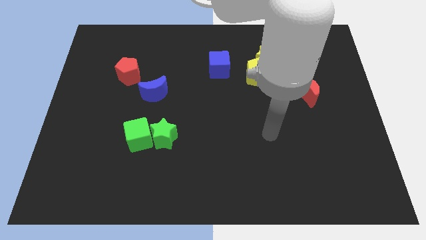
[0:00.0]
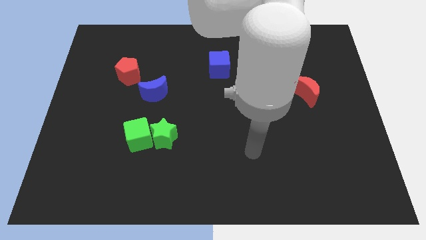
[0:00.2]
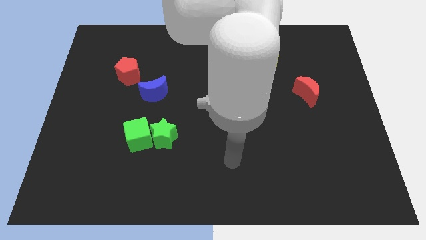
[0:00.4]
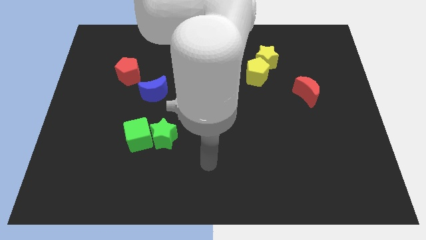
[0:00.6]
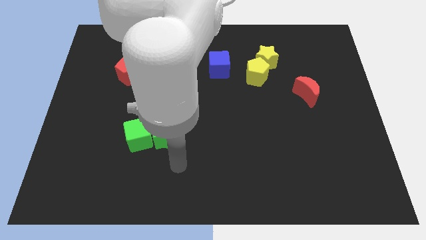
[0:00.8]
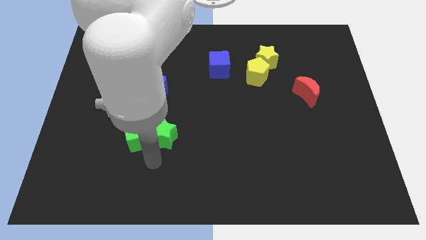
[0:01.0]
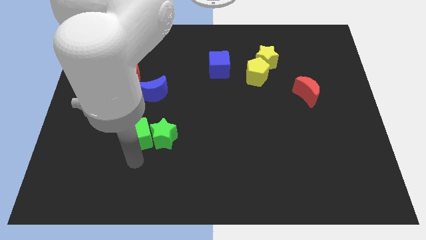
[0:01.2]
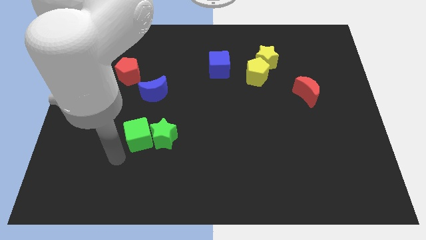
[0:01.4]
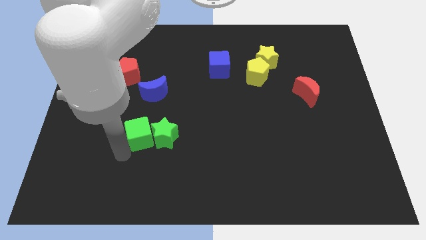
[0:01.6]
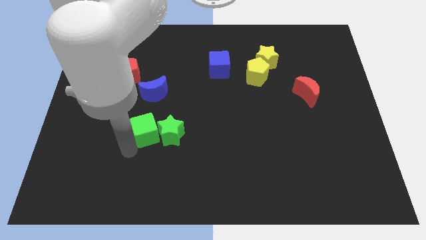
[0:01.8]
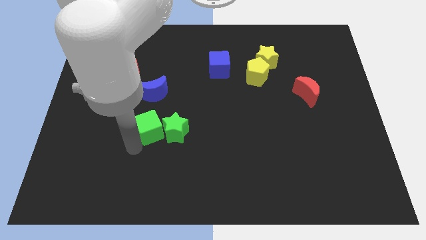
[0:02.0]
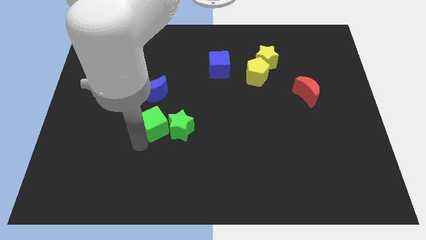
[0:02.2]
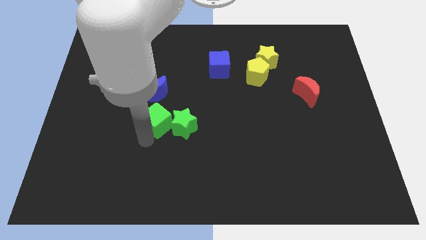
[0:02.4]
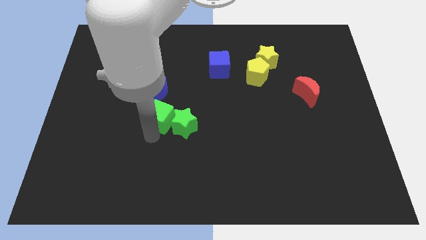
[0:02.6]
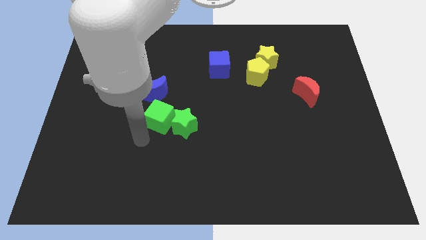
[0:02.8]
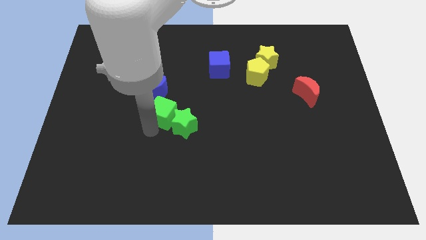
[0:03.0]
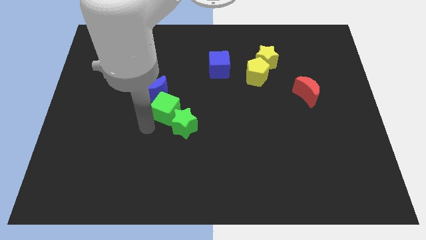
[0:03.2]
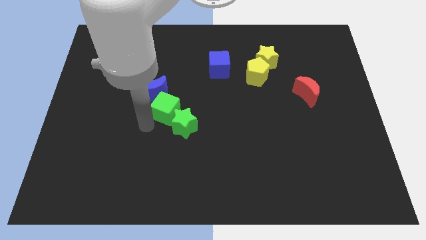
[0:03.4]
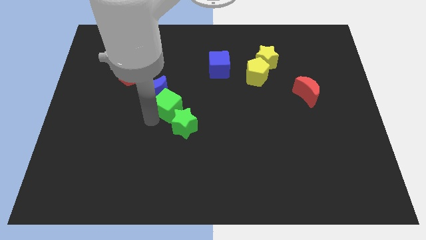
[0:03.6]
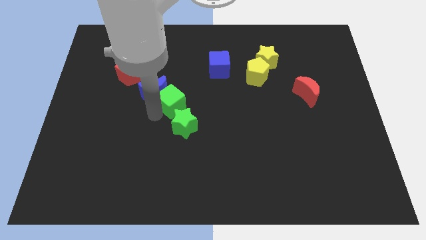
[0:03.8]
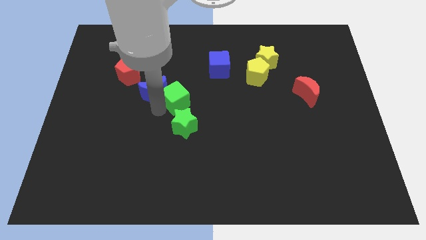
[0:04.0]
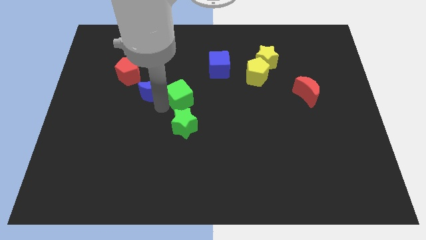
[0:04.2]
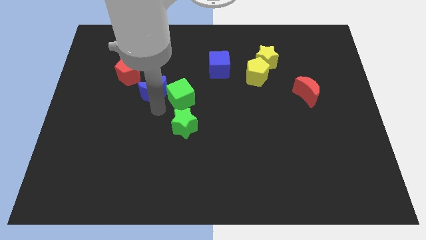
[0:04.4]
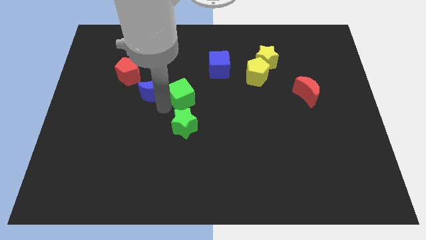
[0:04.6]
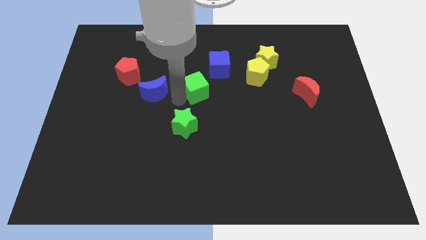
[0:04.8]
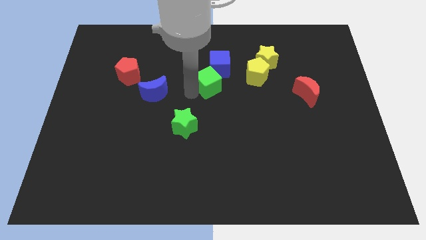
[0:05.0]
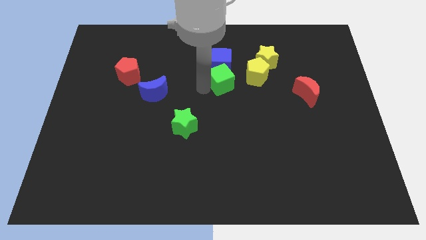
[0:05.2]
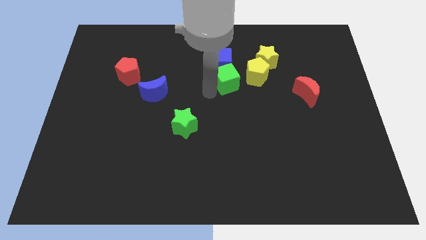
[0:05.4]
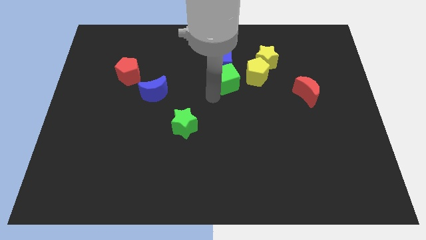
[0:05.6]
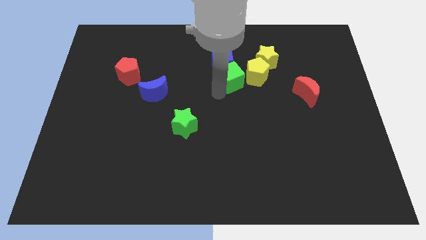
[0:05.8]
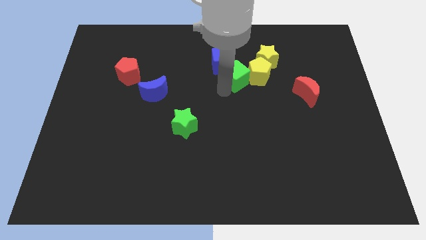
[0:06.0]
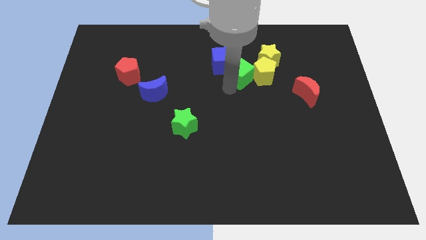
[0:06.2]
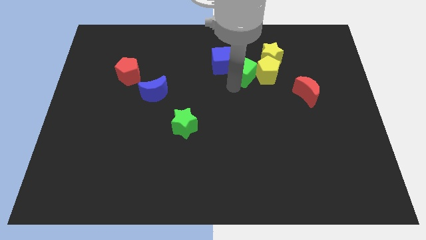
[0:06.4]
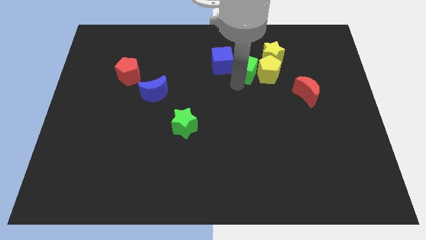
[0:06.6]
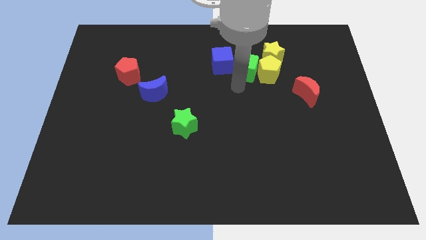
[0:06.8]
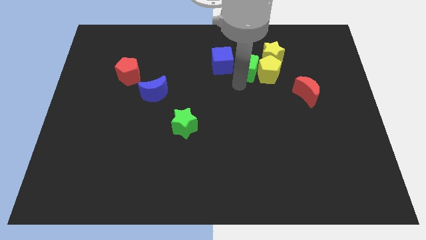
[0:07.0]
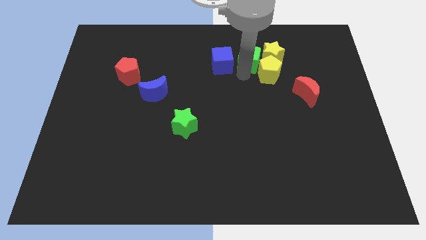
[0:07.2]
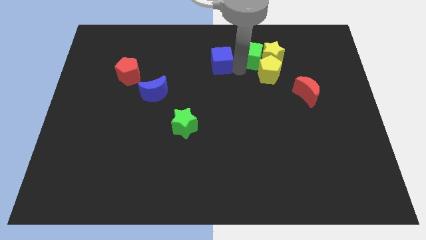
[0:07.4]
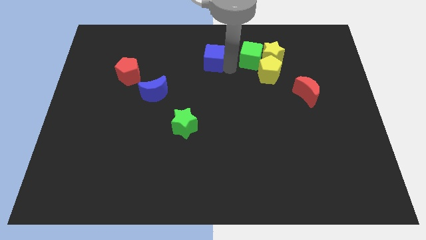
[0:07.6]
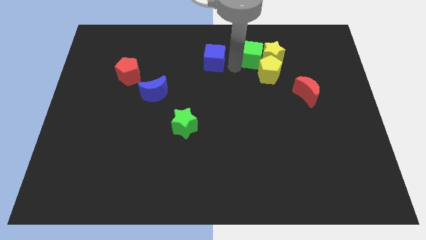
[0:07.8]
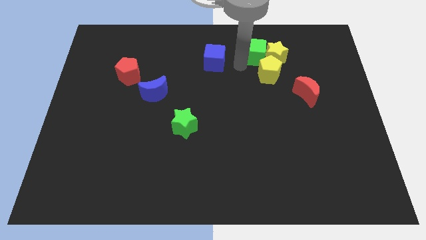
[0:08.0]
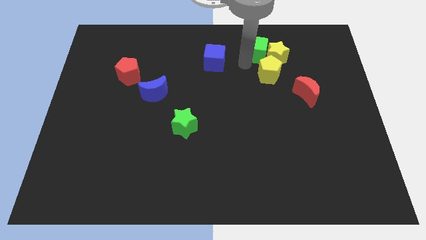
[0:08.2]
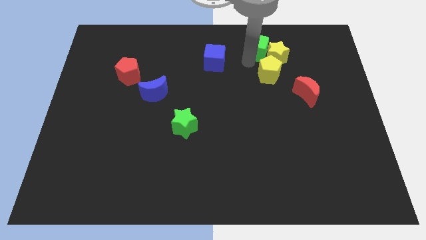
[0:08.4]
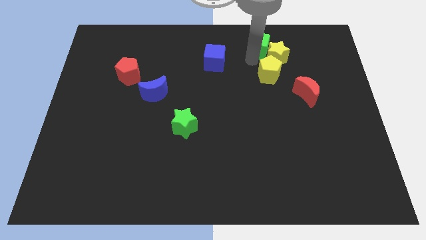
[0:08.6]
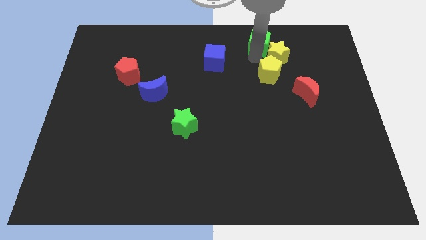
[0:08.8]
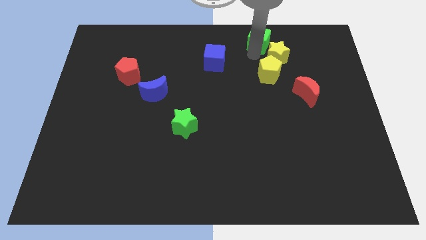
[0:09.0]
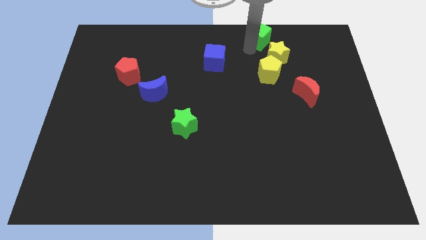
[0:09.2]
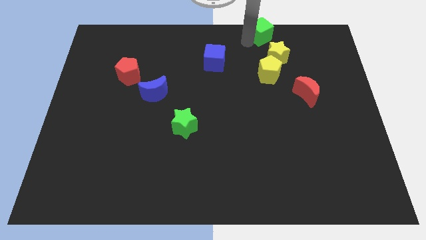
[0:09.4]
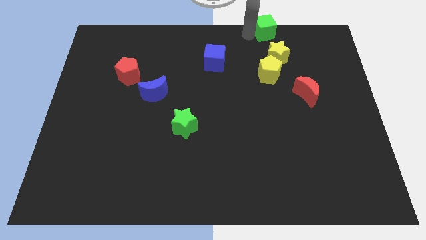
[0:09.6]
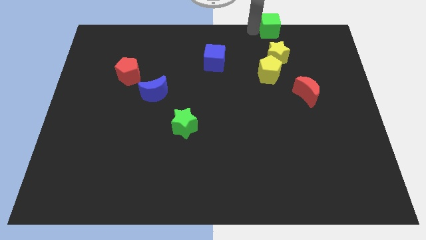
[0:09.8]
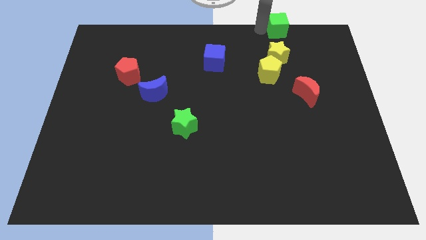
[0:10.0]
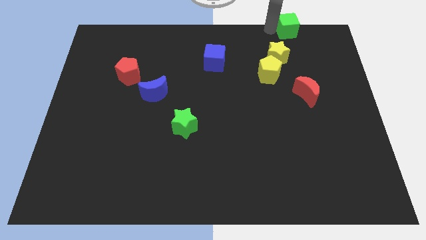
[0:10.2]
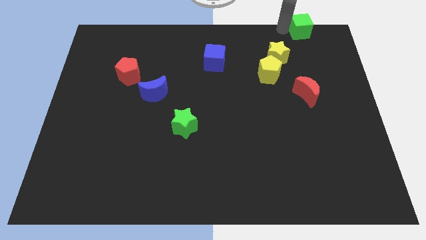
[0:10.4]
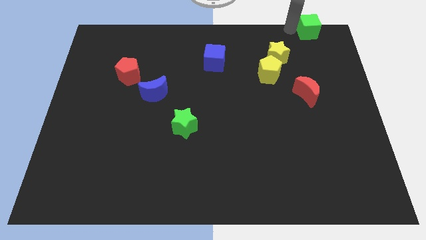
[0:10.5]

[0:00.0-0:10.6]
slide the green cube to the top right of the board

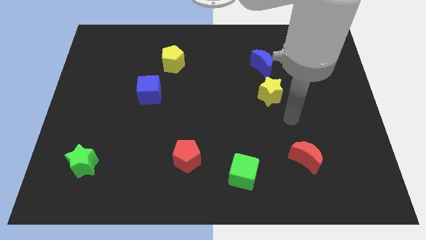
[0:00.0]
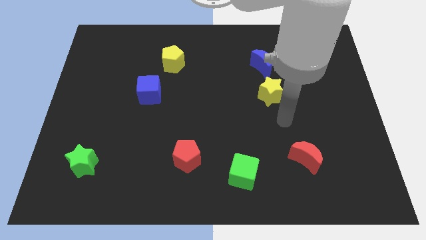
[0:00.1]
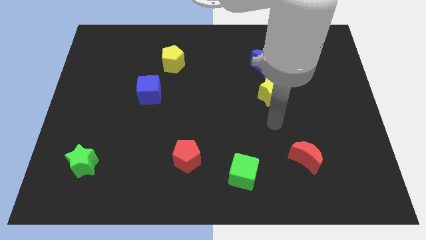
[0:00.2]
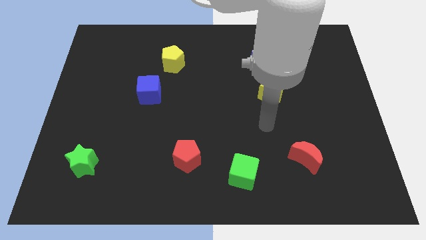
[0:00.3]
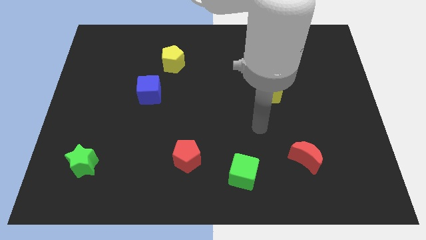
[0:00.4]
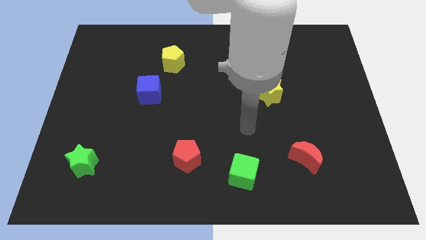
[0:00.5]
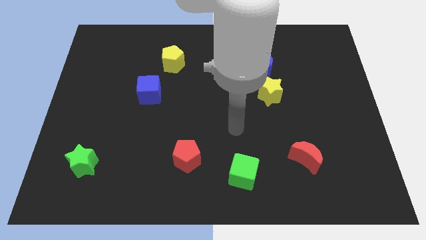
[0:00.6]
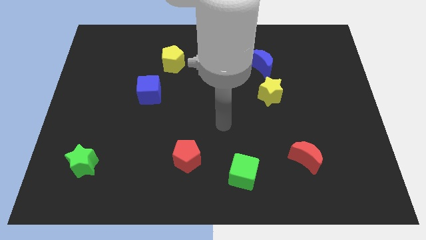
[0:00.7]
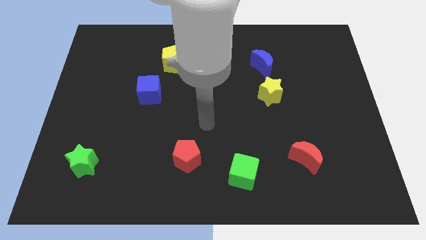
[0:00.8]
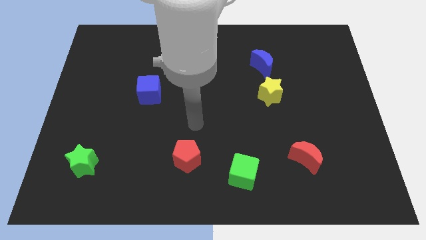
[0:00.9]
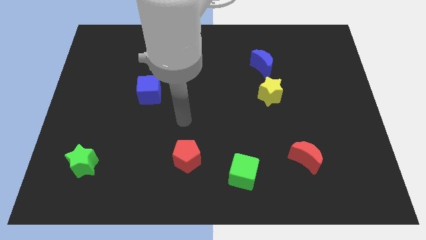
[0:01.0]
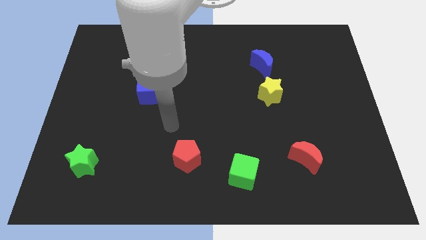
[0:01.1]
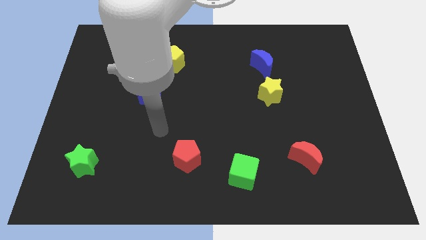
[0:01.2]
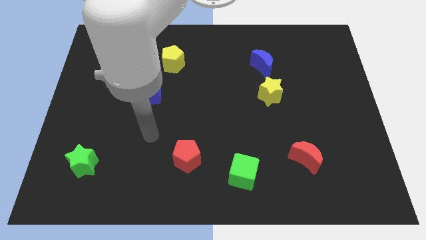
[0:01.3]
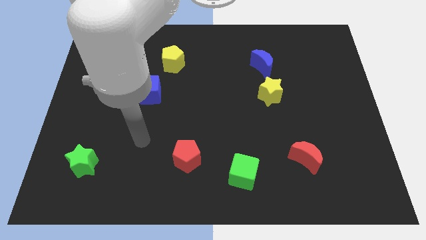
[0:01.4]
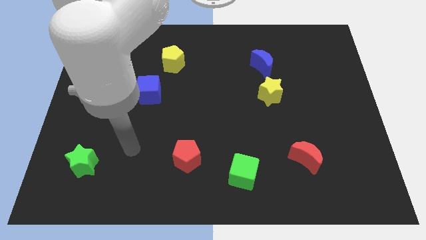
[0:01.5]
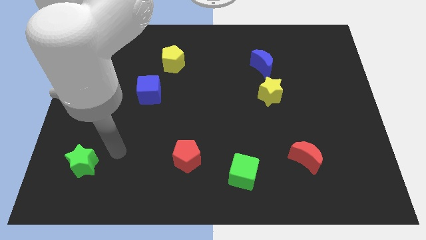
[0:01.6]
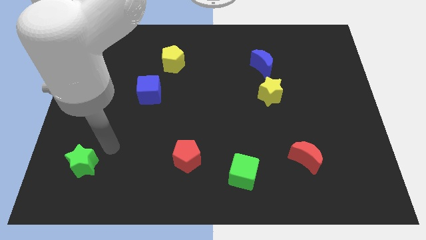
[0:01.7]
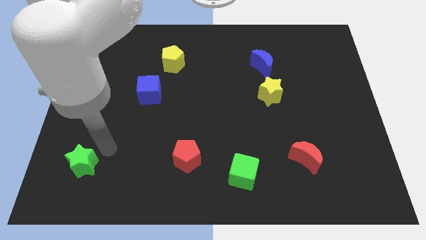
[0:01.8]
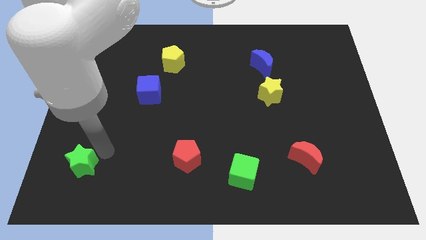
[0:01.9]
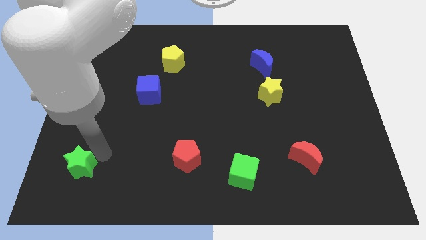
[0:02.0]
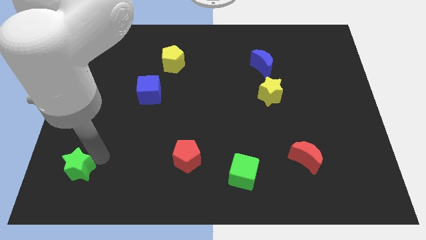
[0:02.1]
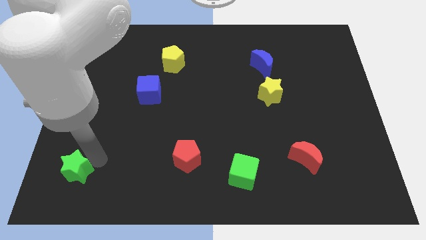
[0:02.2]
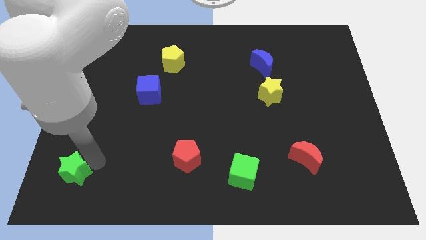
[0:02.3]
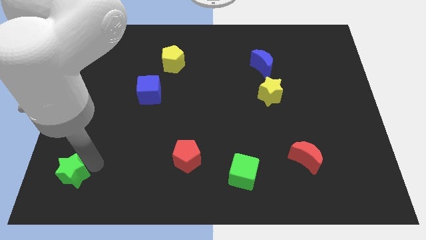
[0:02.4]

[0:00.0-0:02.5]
slide the green star to the bottom left corner

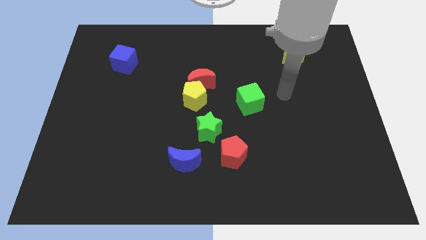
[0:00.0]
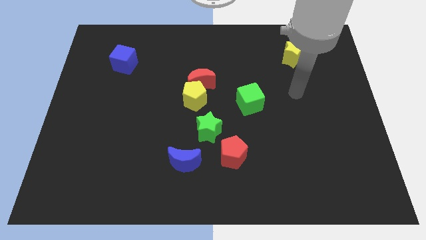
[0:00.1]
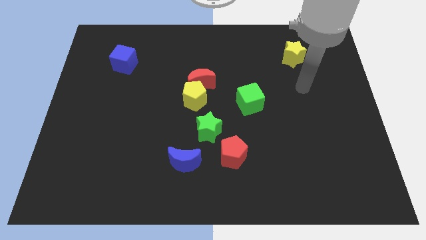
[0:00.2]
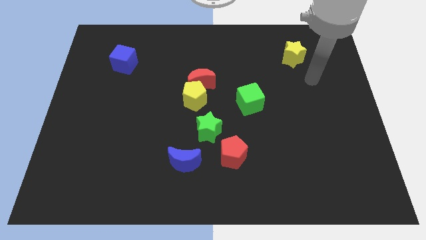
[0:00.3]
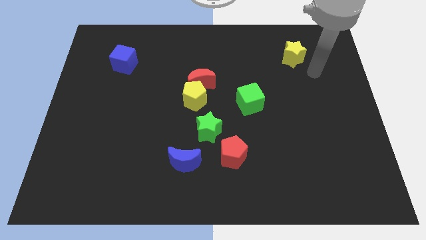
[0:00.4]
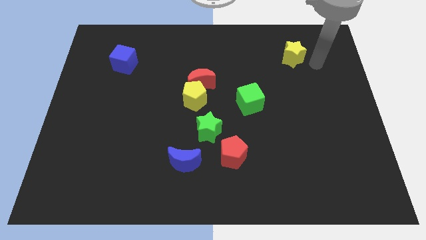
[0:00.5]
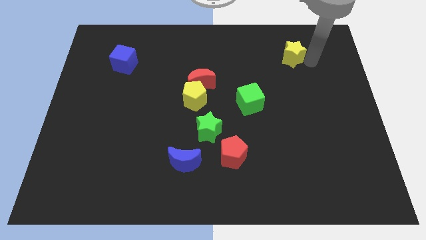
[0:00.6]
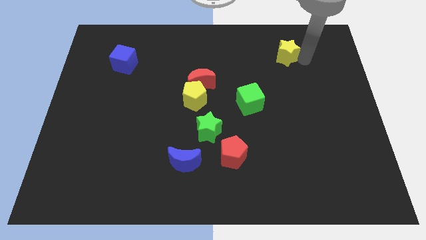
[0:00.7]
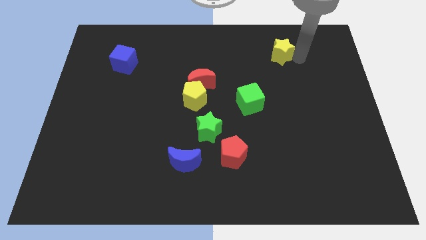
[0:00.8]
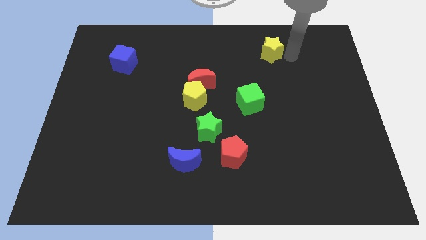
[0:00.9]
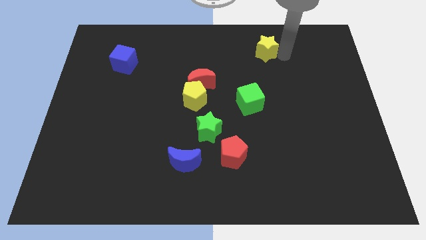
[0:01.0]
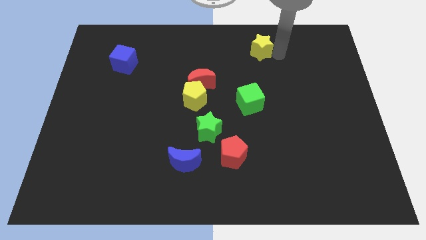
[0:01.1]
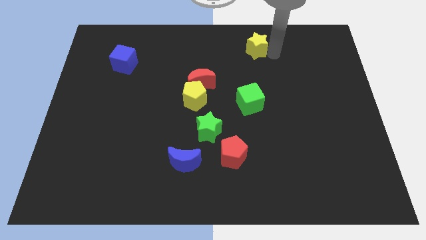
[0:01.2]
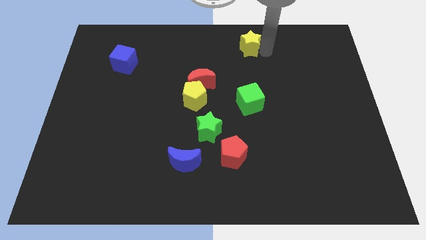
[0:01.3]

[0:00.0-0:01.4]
put the yellow star to the top
